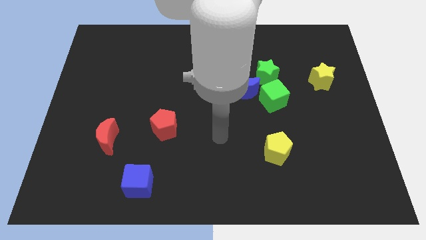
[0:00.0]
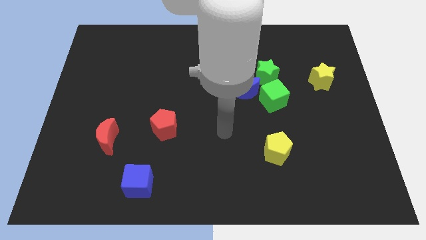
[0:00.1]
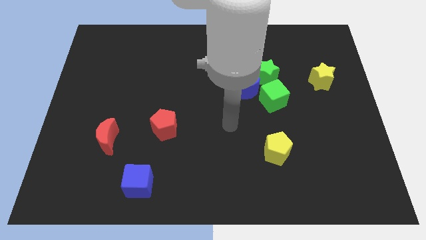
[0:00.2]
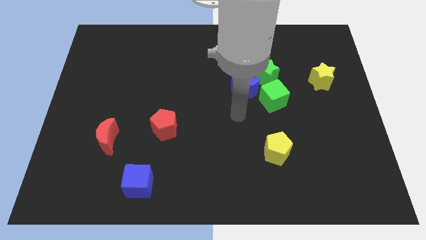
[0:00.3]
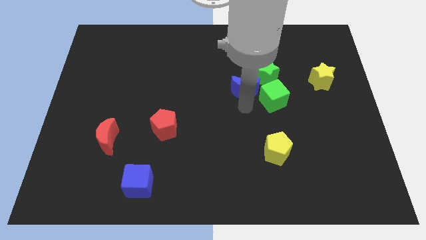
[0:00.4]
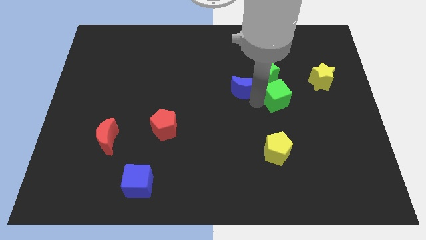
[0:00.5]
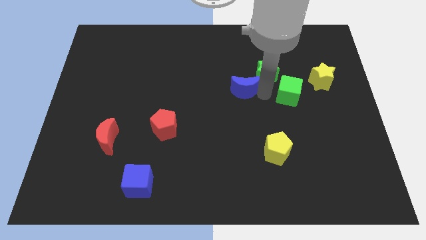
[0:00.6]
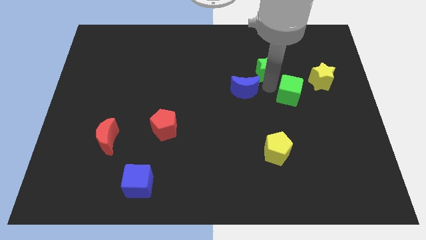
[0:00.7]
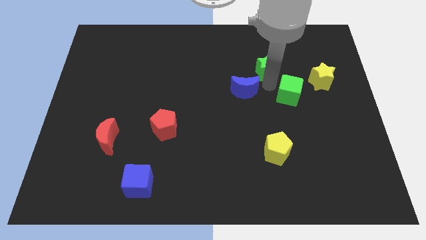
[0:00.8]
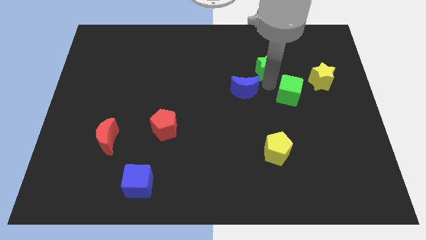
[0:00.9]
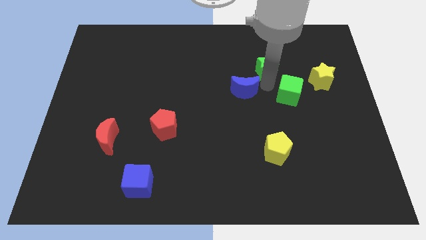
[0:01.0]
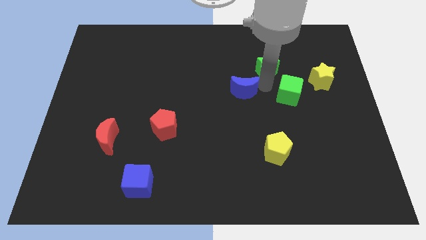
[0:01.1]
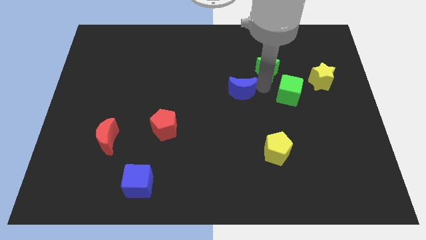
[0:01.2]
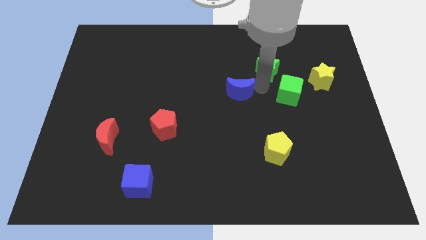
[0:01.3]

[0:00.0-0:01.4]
pull the blue moon apart from the green cube and green star

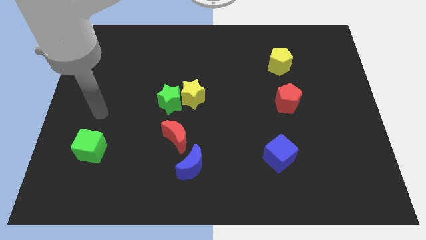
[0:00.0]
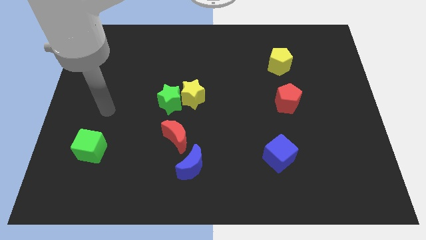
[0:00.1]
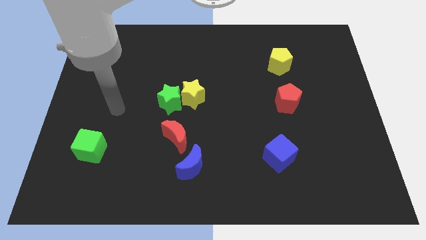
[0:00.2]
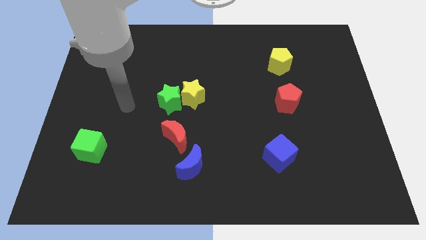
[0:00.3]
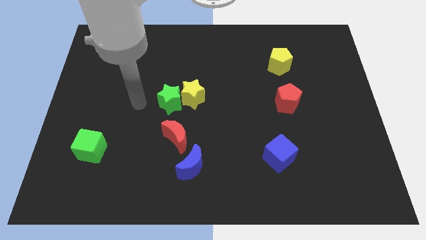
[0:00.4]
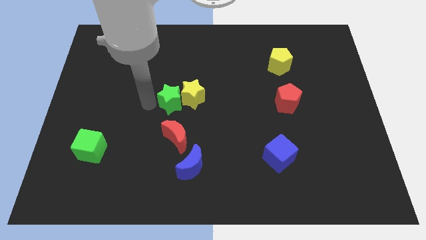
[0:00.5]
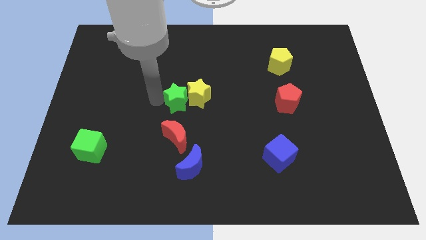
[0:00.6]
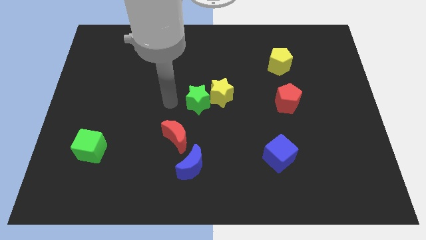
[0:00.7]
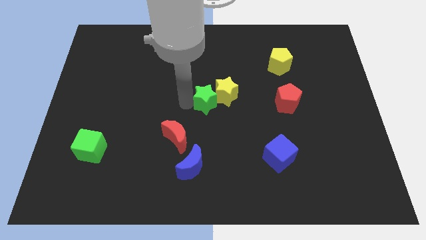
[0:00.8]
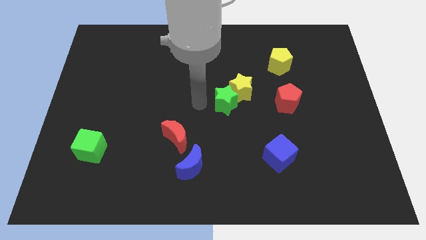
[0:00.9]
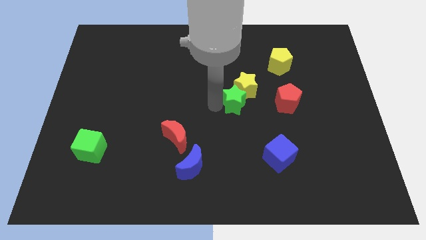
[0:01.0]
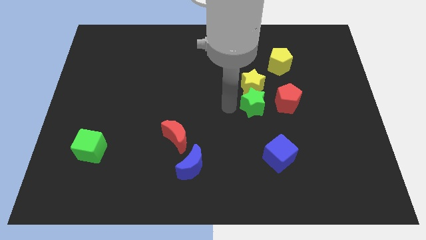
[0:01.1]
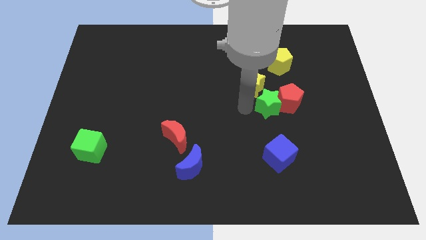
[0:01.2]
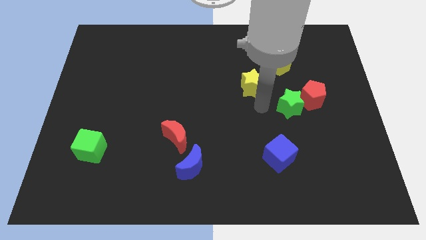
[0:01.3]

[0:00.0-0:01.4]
separate the yellow star from the green star

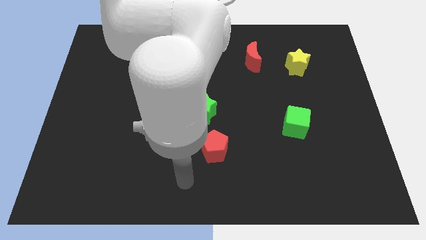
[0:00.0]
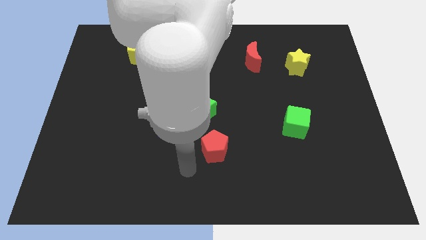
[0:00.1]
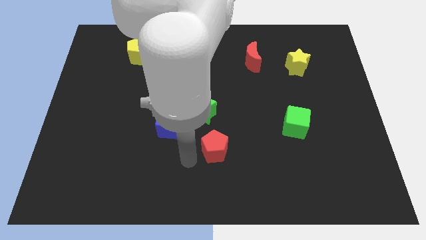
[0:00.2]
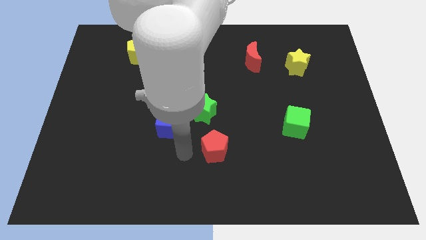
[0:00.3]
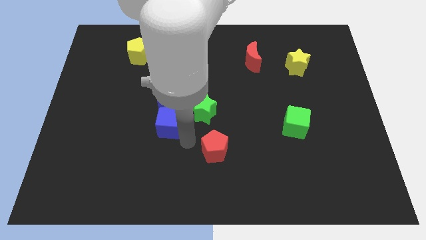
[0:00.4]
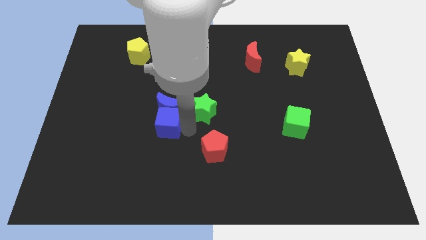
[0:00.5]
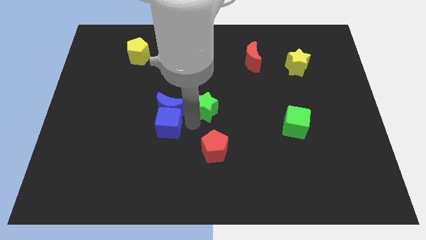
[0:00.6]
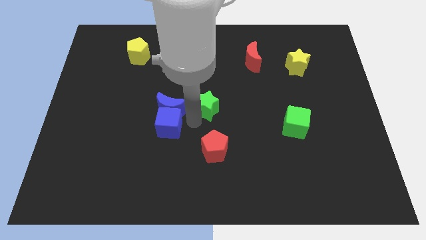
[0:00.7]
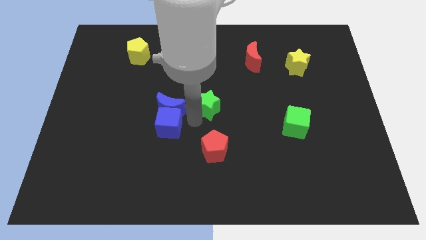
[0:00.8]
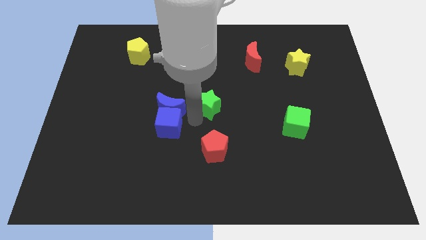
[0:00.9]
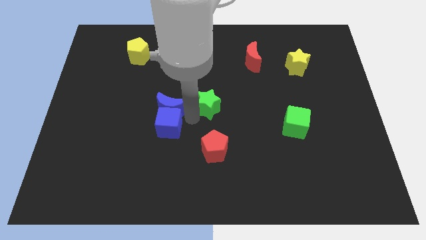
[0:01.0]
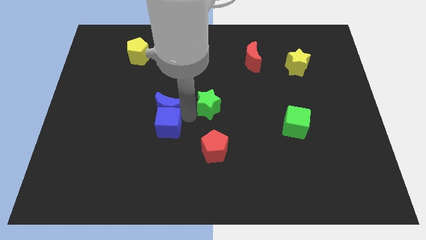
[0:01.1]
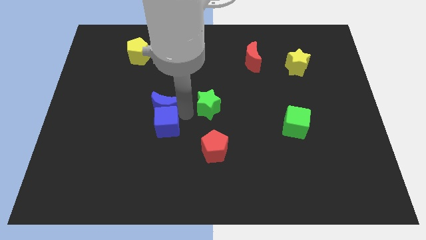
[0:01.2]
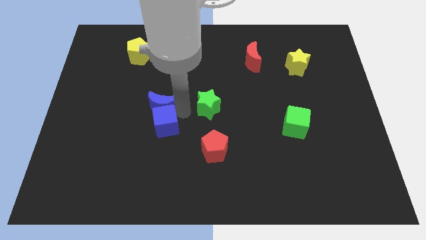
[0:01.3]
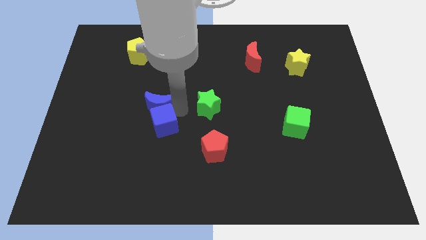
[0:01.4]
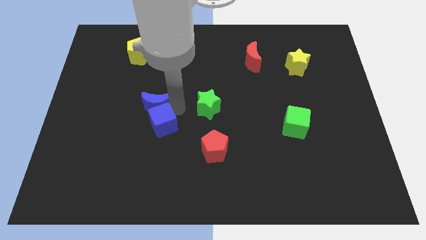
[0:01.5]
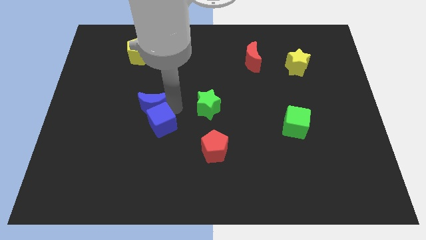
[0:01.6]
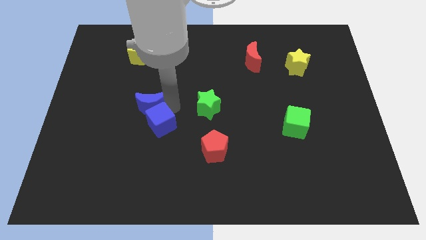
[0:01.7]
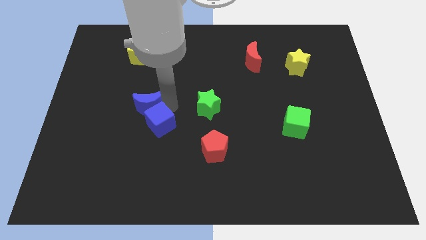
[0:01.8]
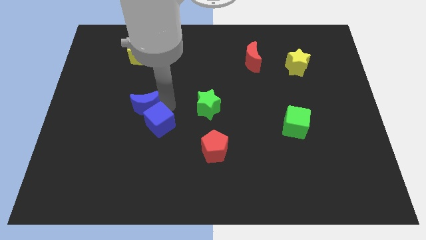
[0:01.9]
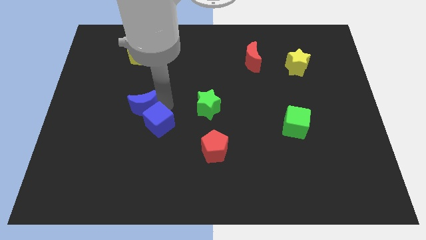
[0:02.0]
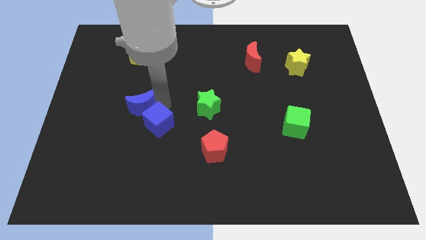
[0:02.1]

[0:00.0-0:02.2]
separate the blue moon from the blue cube and green star

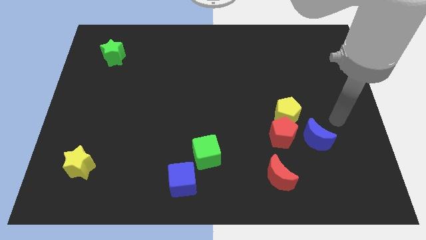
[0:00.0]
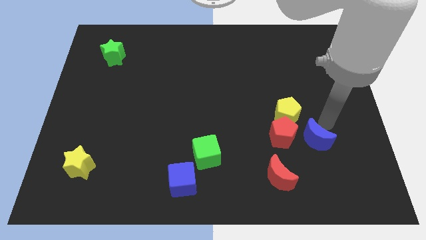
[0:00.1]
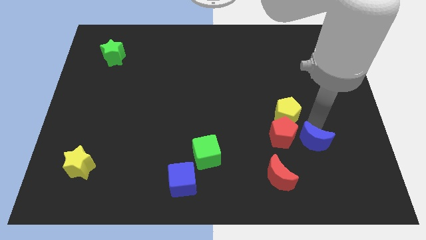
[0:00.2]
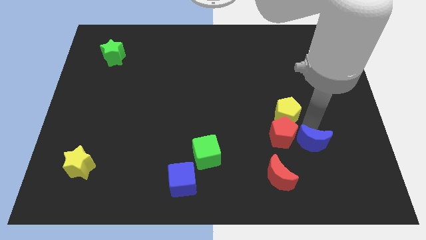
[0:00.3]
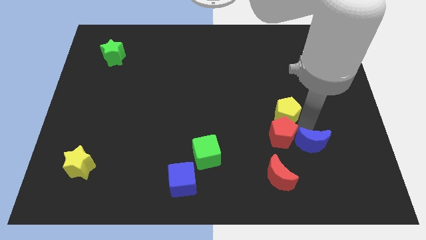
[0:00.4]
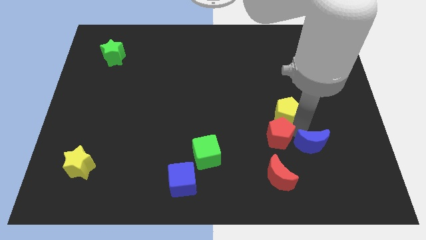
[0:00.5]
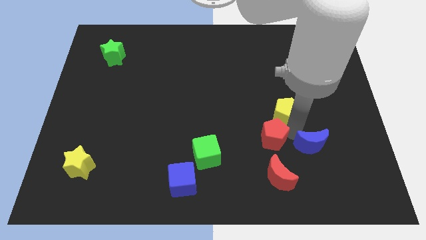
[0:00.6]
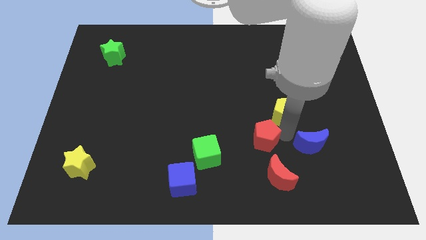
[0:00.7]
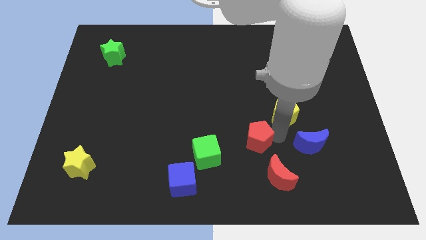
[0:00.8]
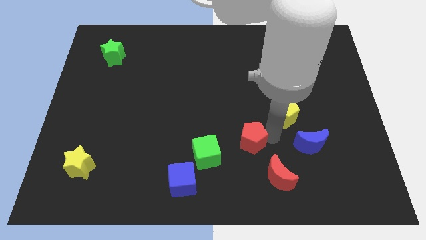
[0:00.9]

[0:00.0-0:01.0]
pull the red pentagon apart from the yellow pentagon and blue moon

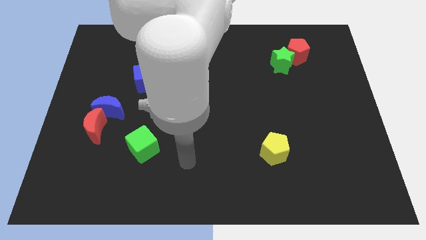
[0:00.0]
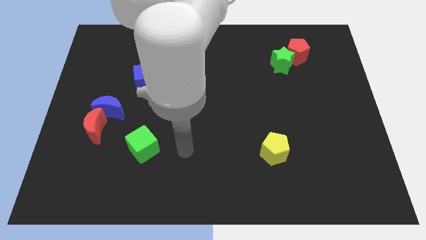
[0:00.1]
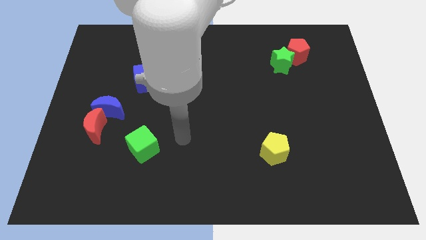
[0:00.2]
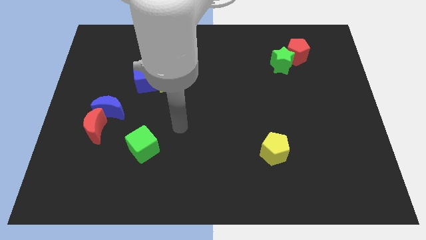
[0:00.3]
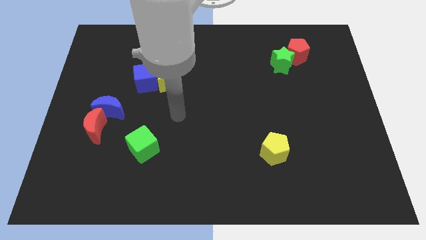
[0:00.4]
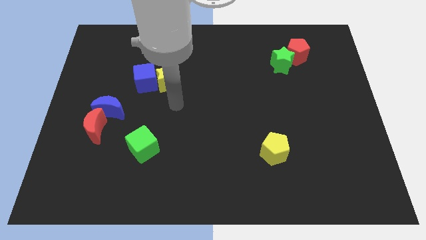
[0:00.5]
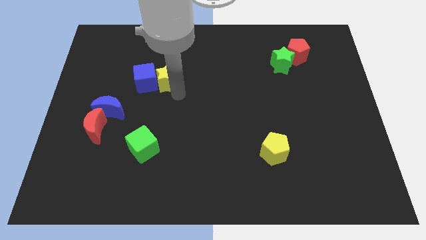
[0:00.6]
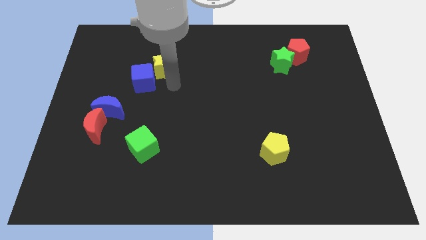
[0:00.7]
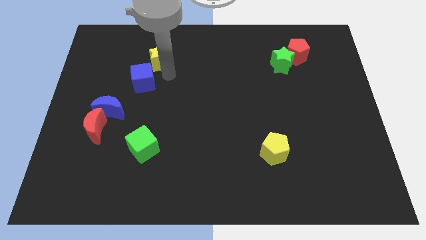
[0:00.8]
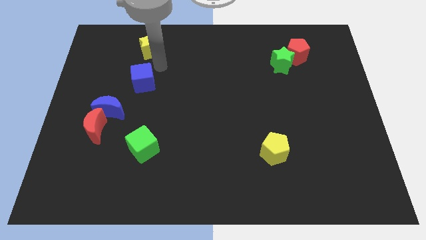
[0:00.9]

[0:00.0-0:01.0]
pull the blue cube apart from the yellow star

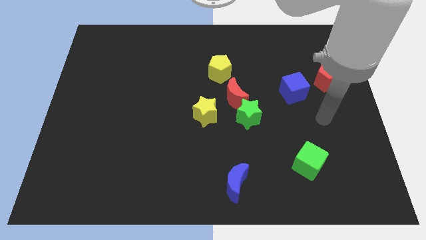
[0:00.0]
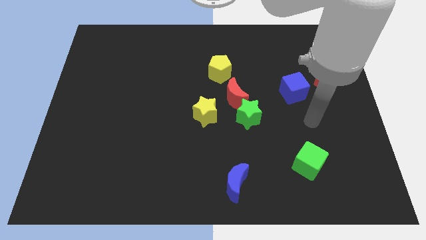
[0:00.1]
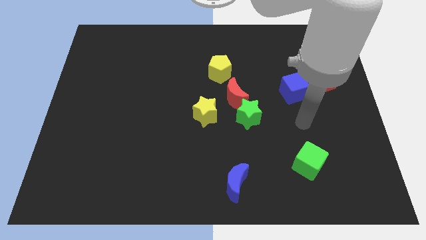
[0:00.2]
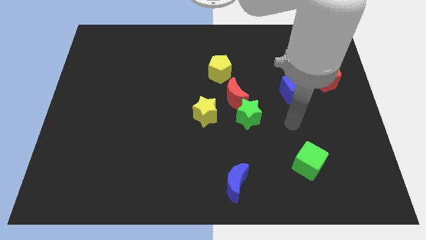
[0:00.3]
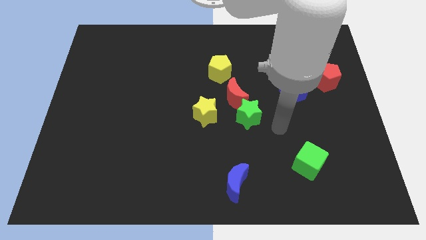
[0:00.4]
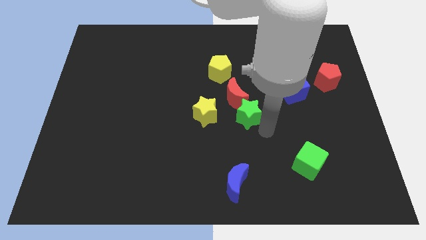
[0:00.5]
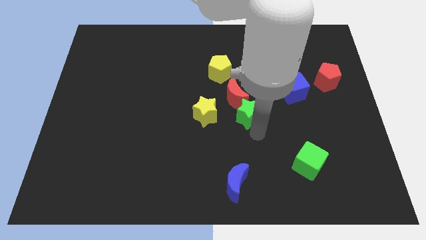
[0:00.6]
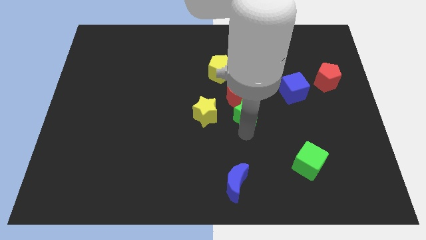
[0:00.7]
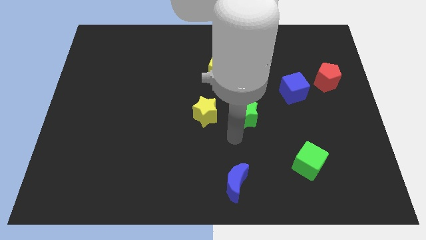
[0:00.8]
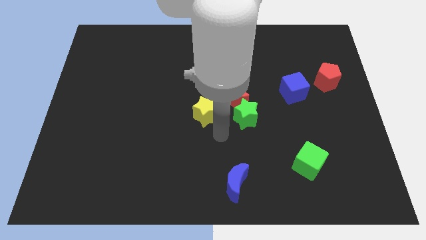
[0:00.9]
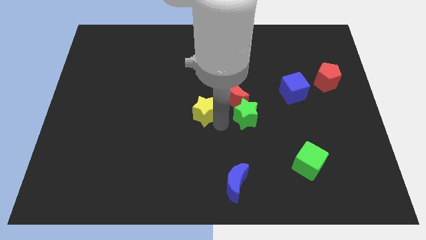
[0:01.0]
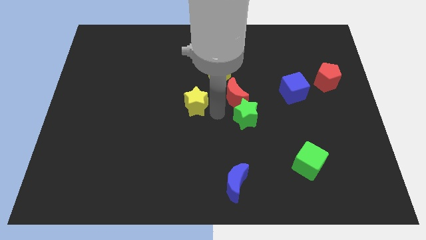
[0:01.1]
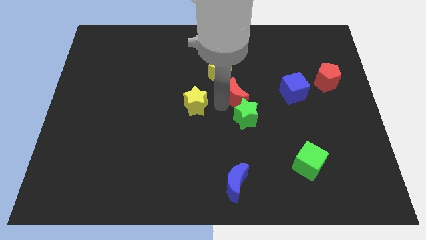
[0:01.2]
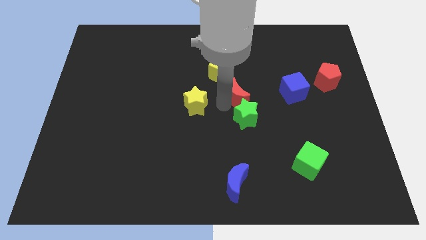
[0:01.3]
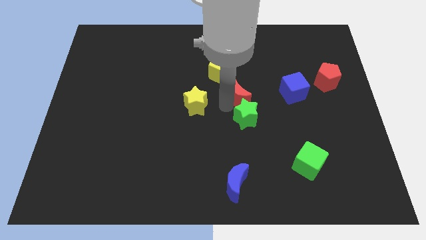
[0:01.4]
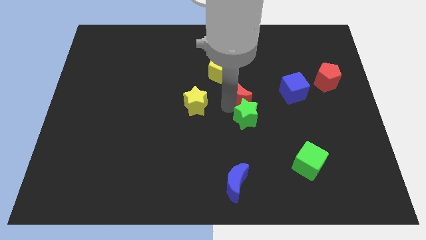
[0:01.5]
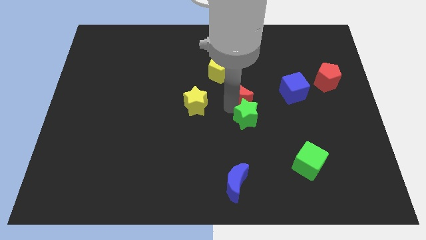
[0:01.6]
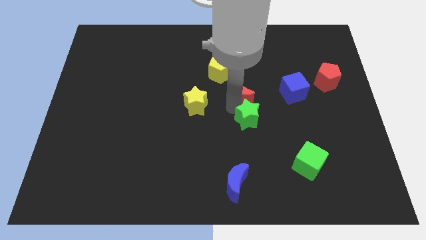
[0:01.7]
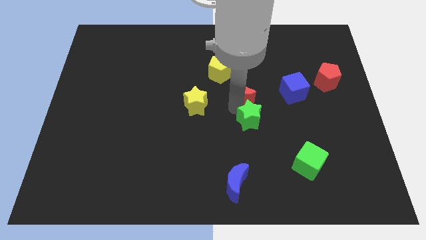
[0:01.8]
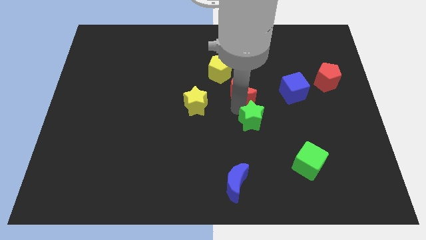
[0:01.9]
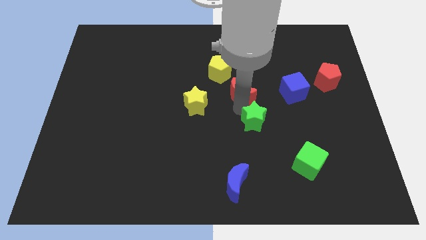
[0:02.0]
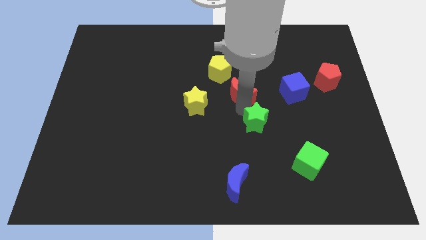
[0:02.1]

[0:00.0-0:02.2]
move the green star away from the red moon and yellow star

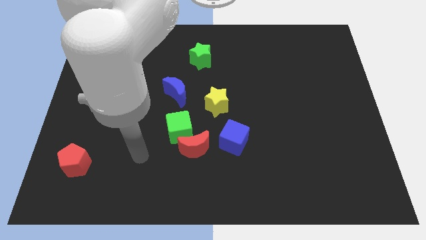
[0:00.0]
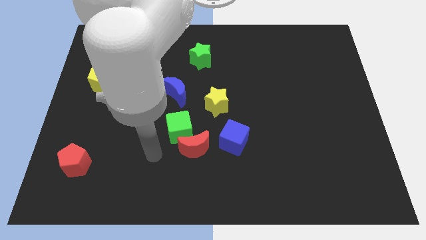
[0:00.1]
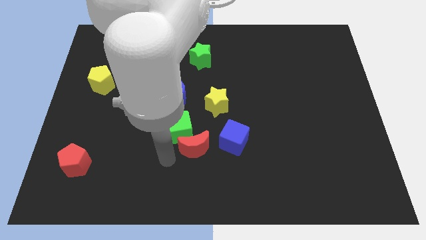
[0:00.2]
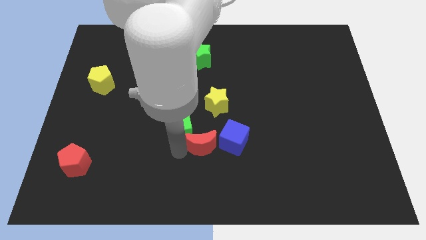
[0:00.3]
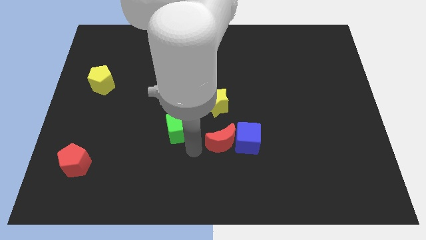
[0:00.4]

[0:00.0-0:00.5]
pull the green cube apart from the red moon
